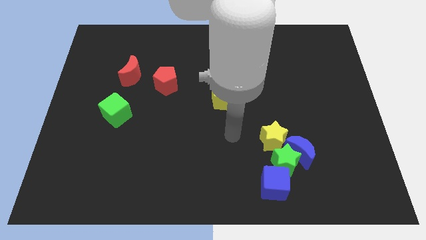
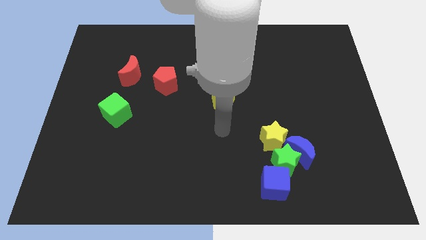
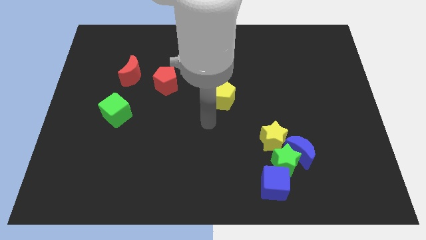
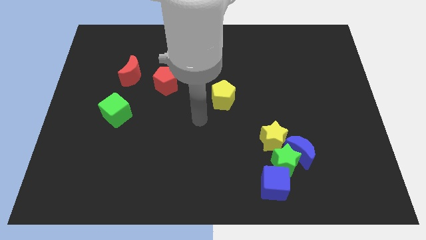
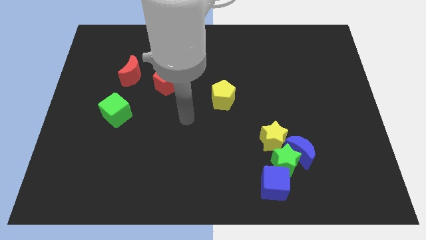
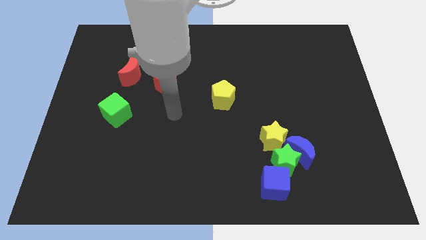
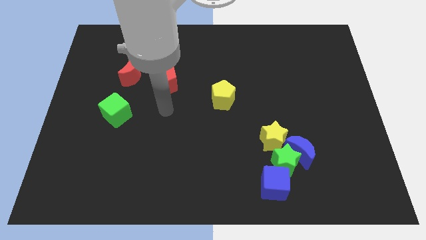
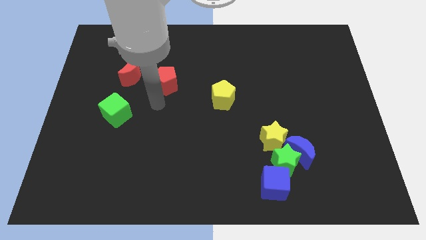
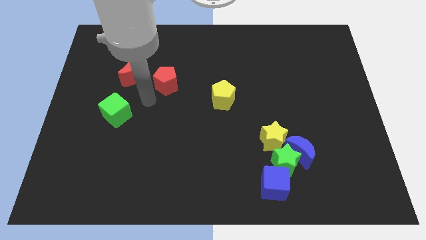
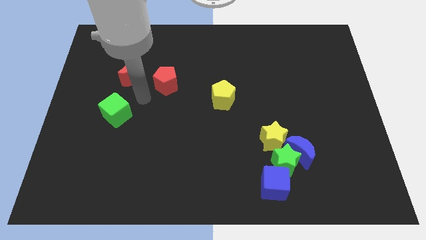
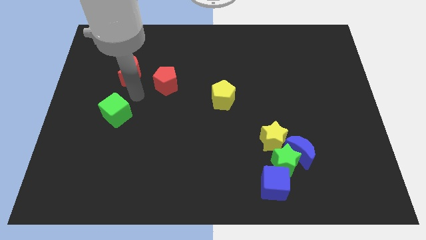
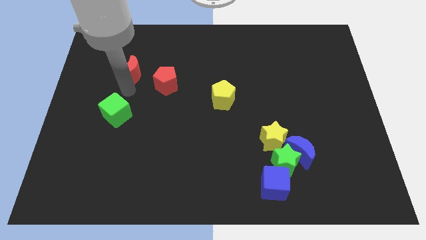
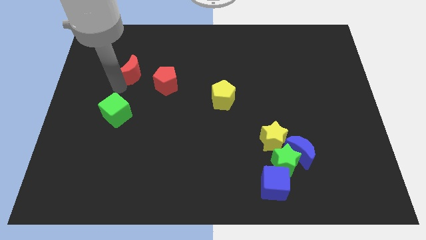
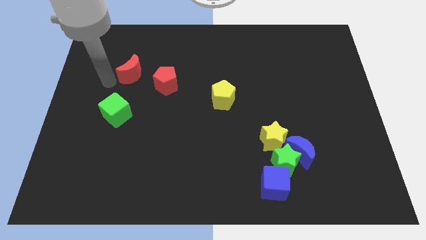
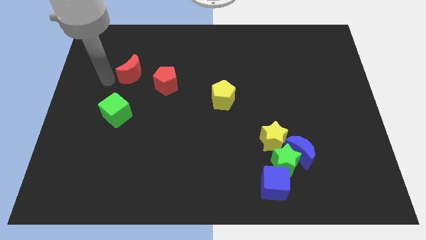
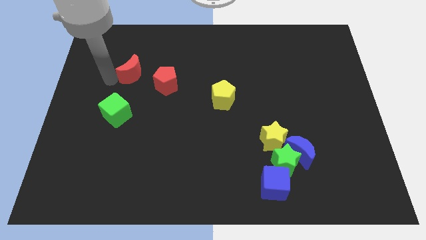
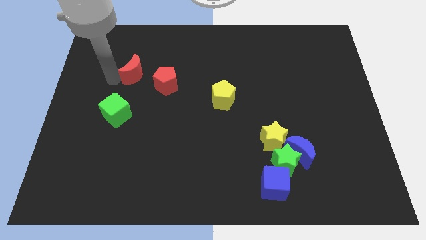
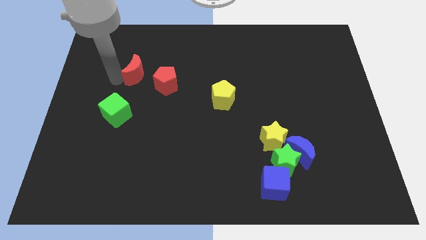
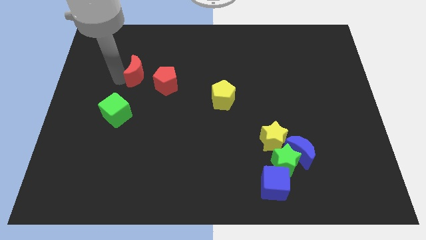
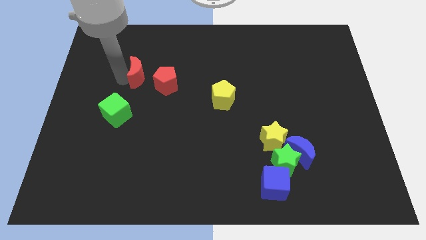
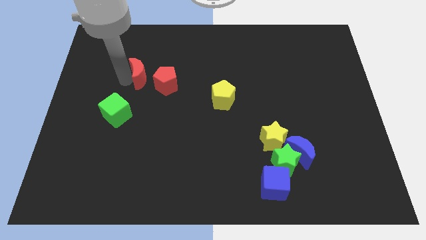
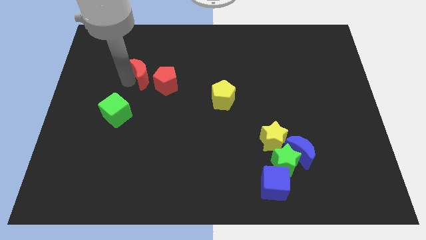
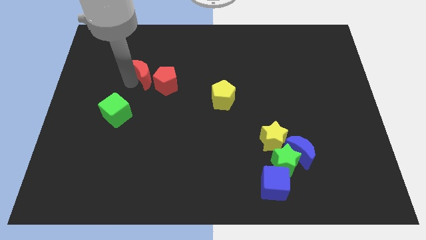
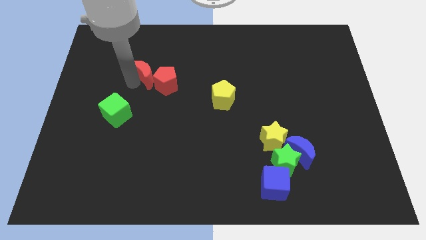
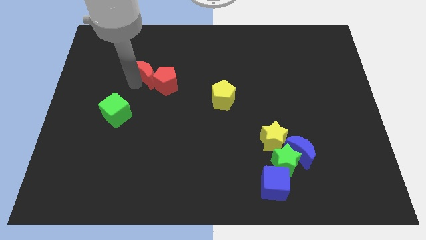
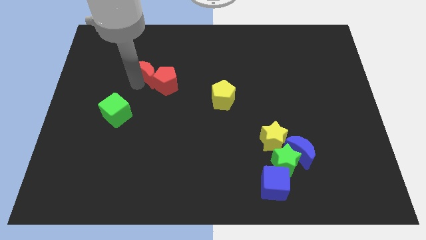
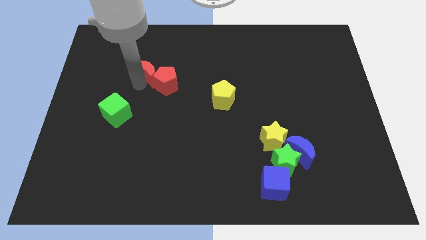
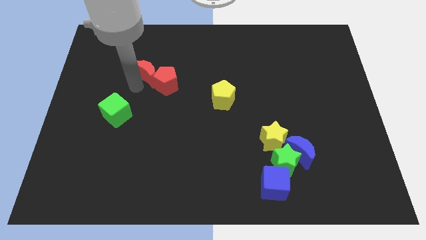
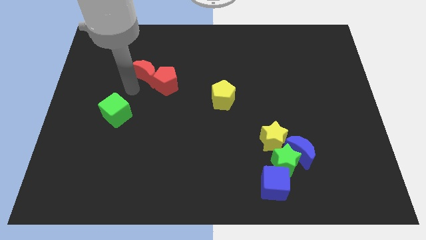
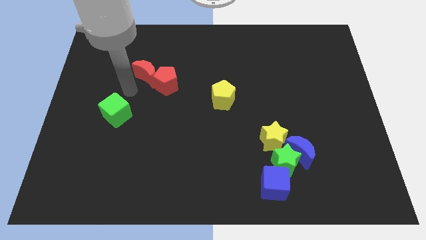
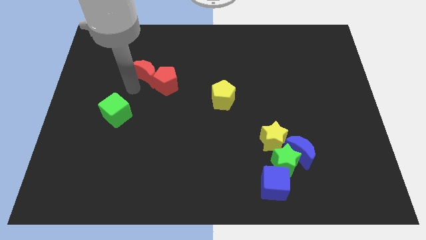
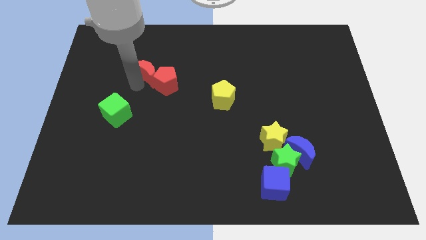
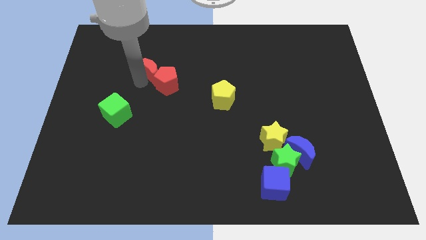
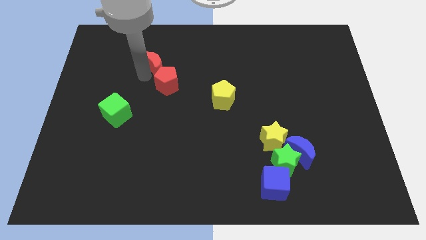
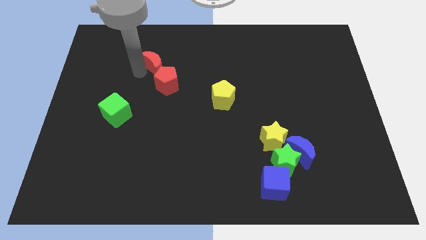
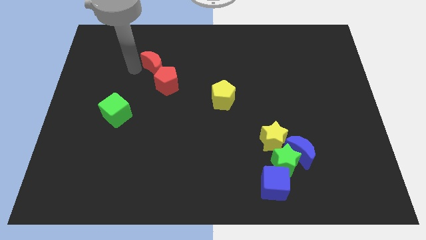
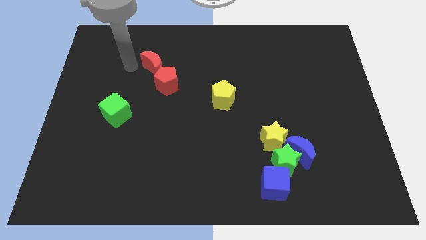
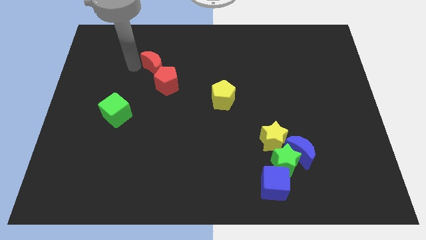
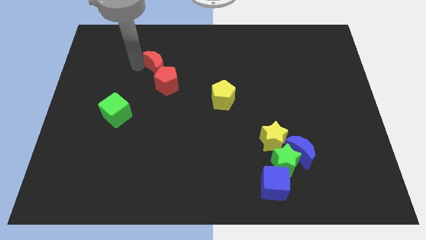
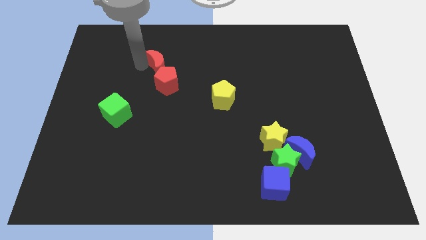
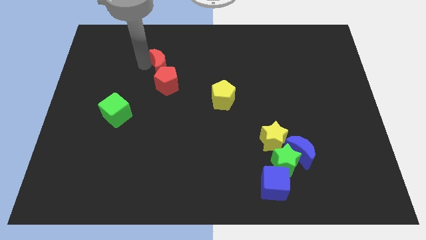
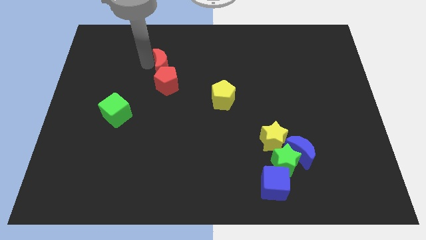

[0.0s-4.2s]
slide the red moon a little bit right

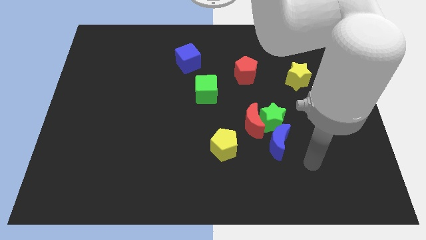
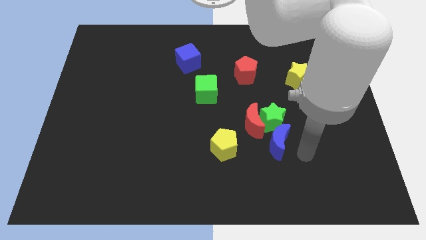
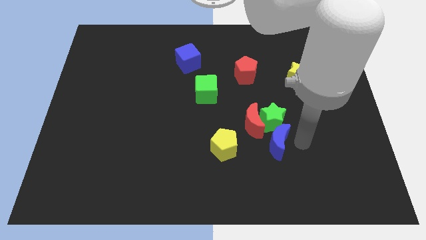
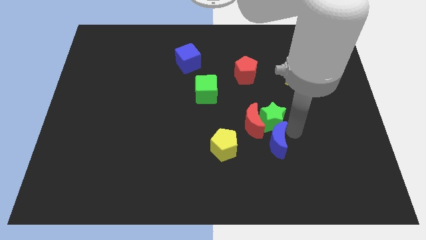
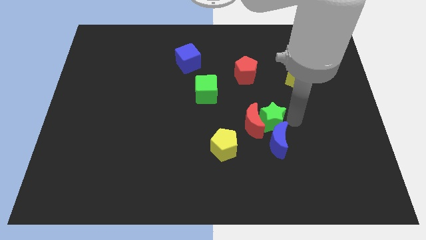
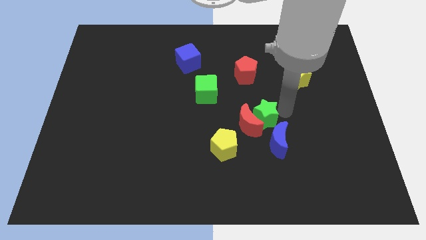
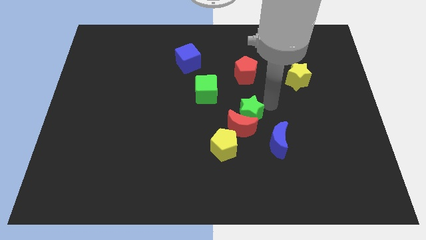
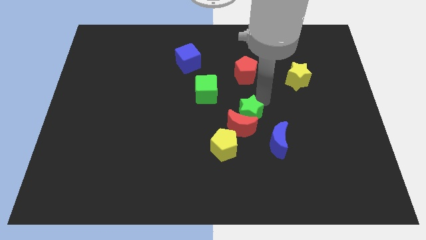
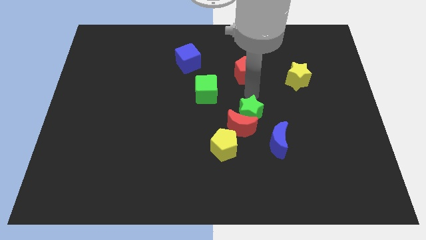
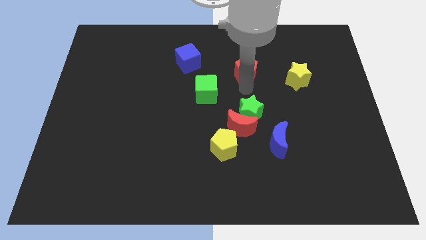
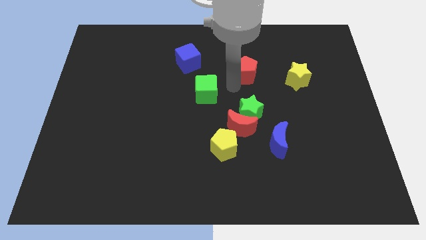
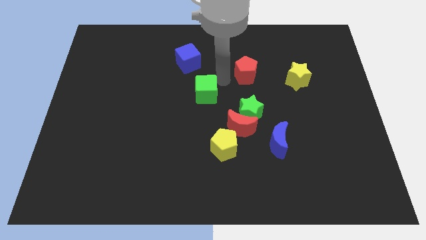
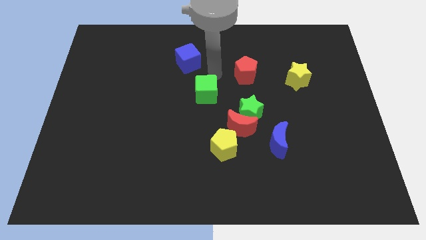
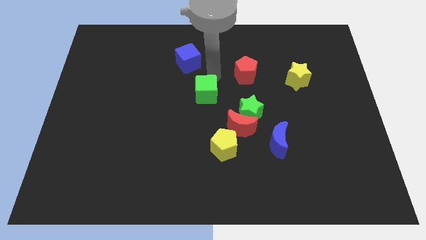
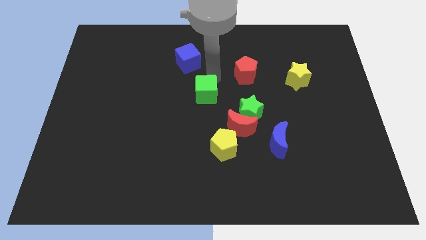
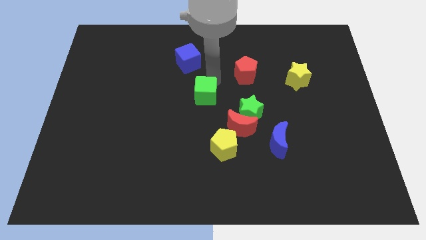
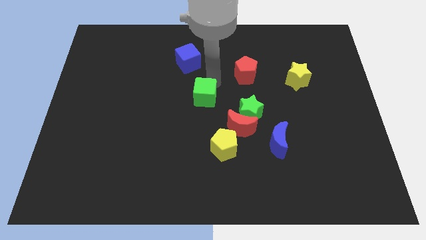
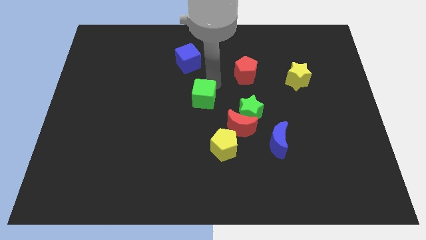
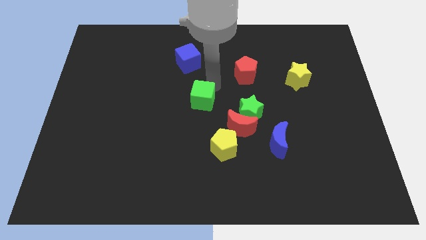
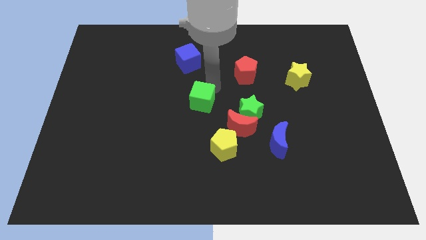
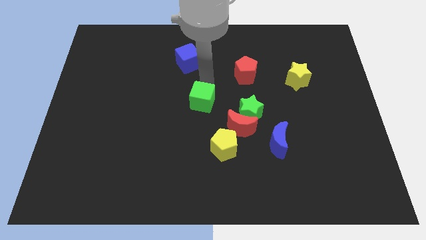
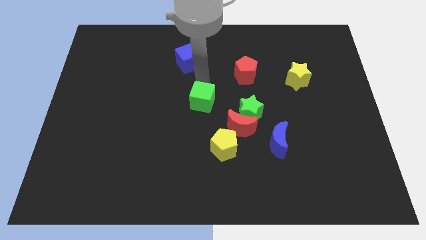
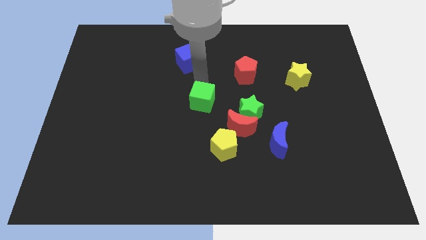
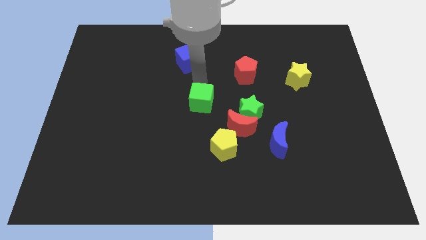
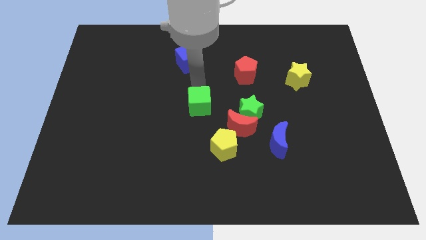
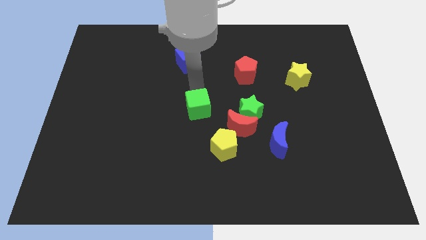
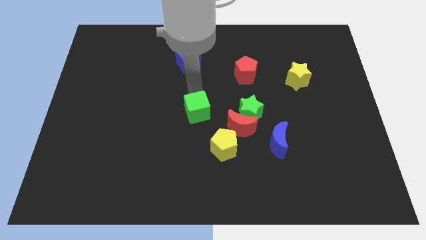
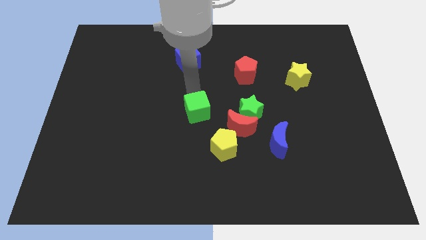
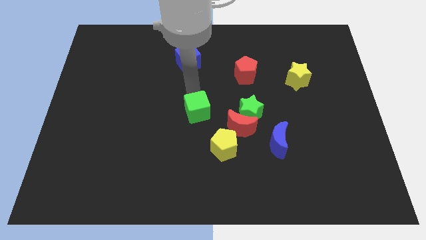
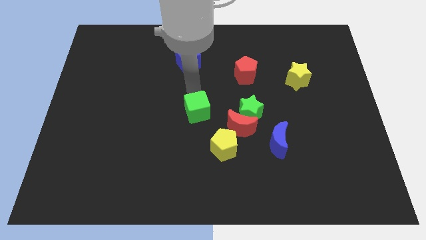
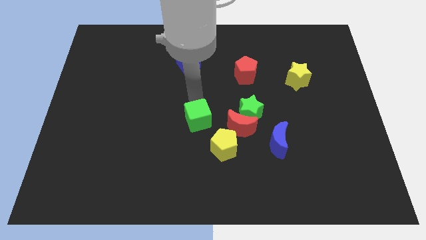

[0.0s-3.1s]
push the green cube slightly downwards
